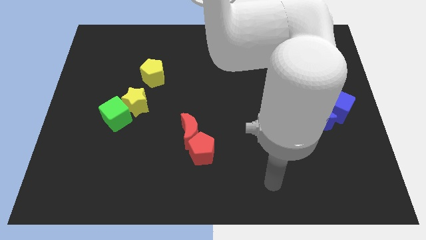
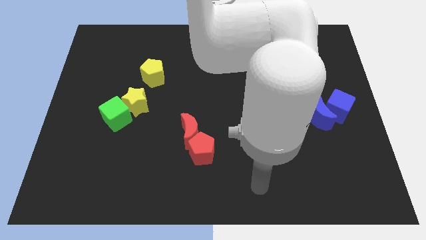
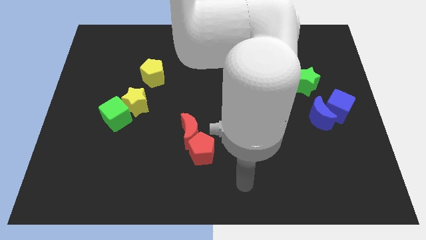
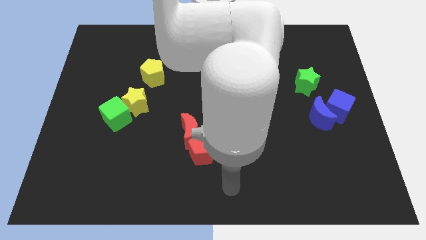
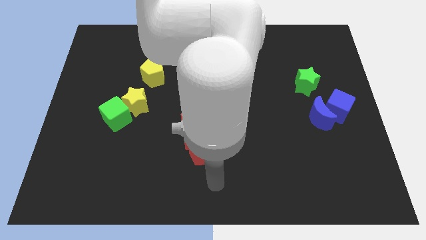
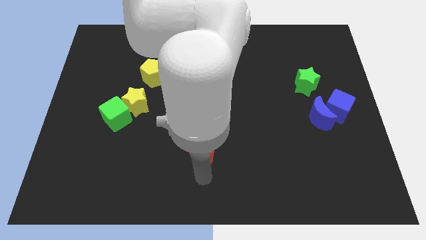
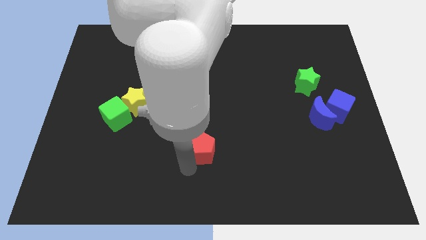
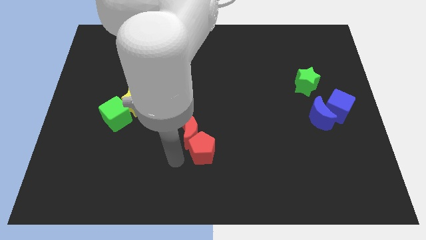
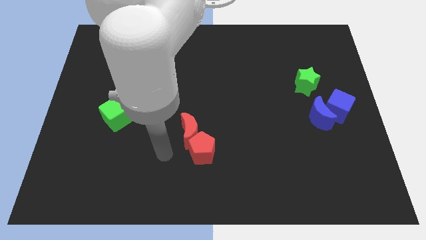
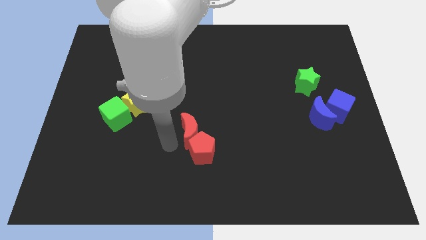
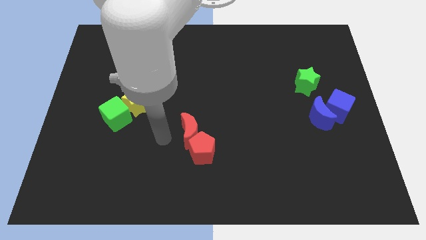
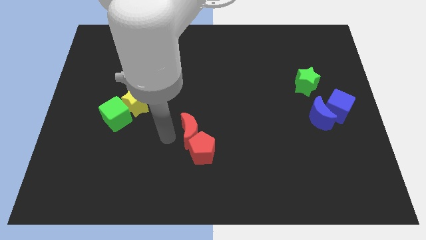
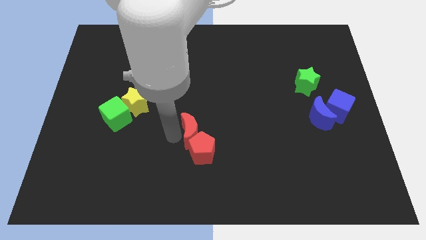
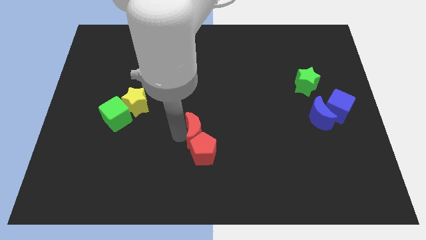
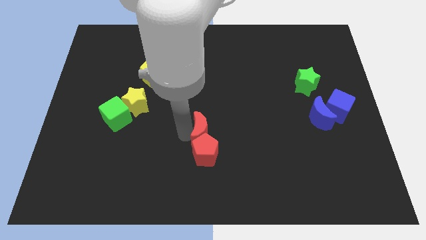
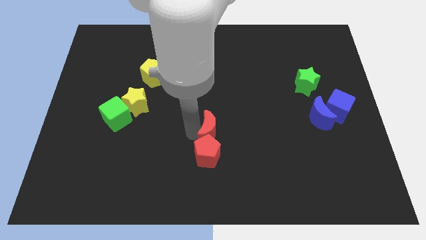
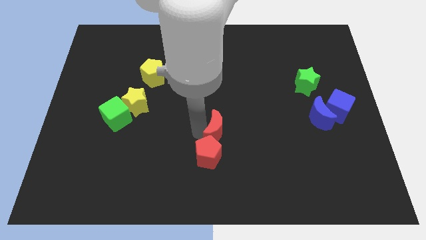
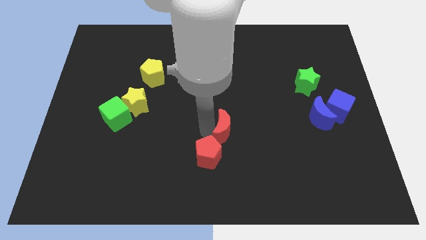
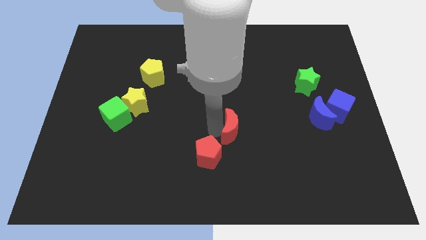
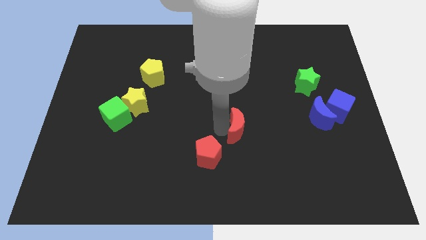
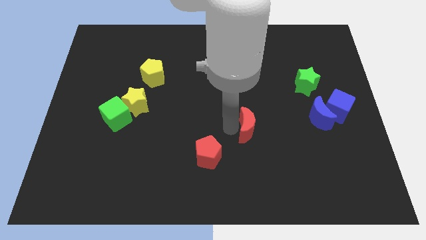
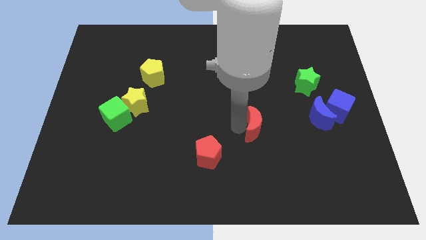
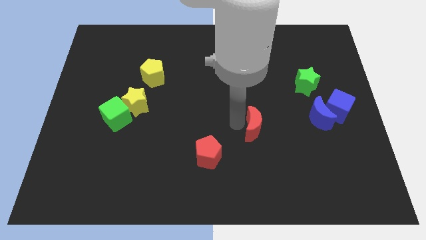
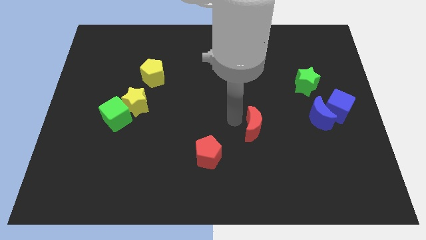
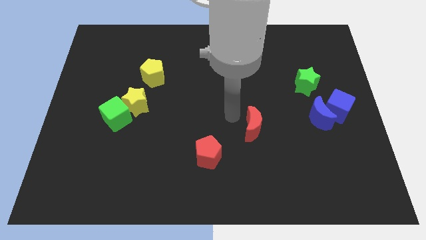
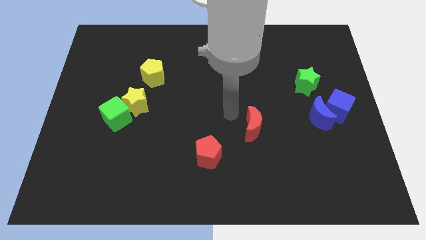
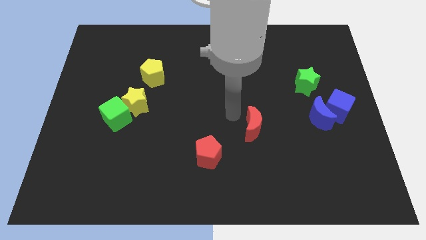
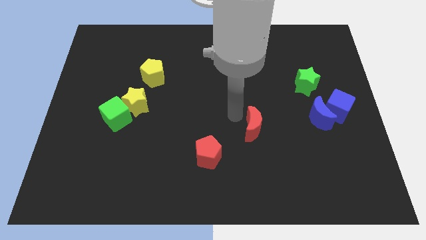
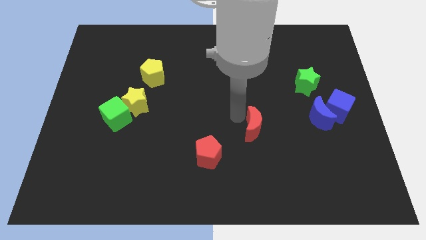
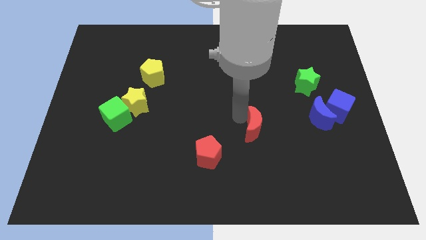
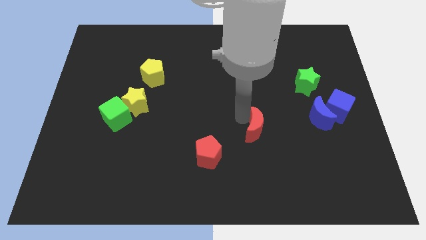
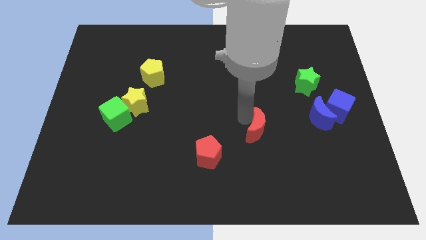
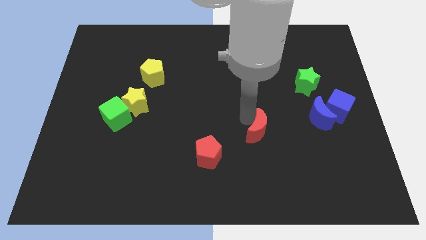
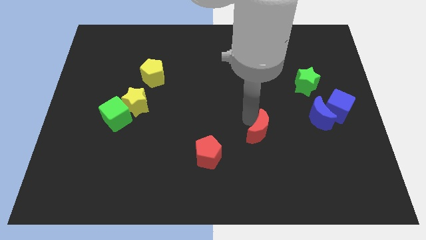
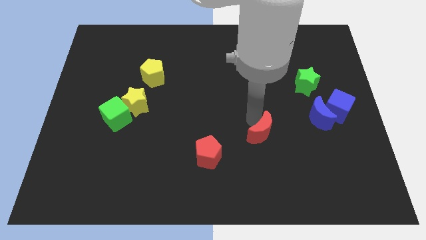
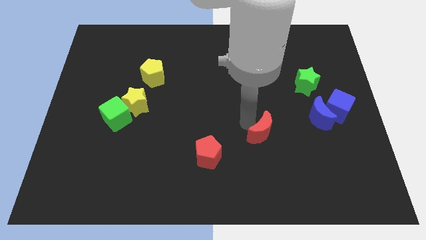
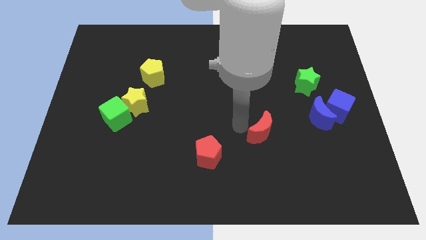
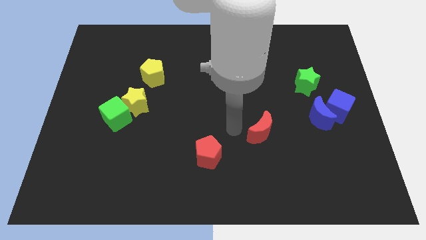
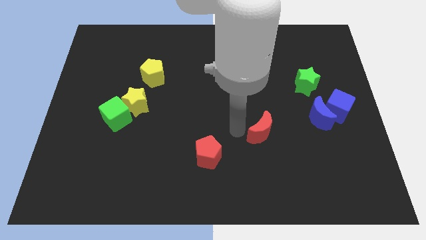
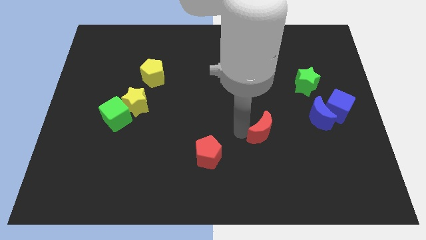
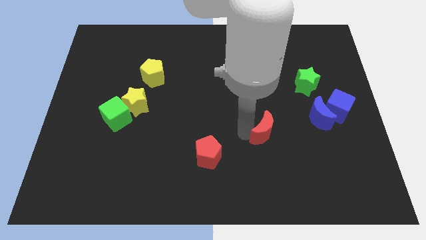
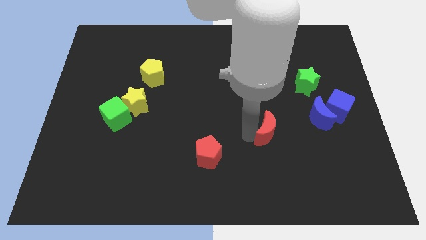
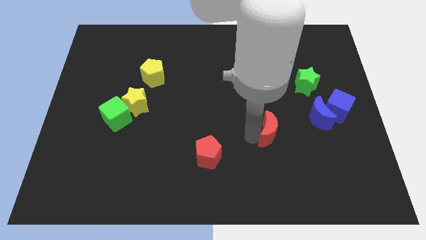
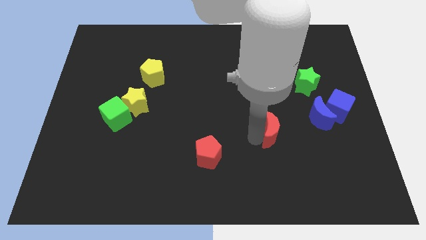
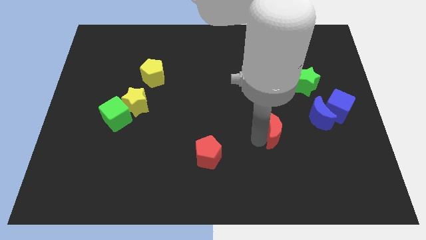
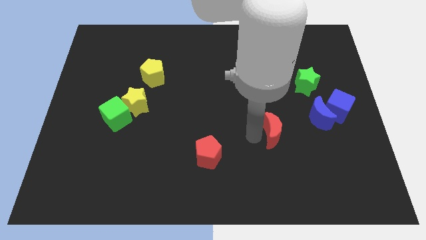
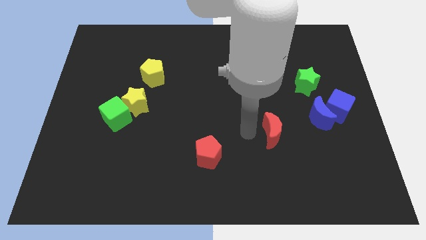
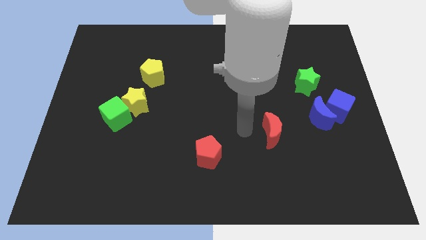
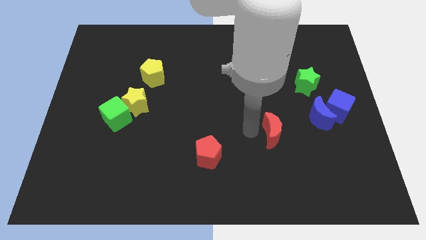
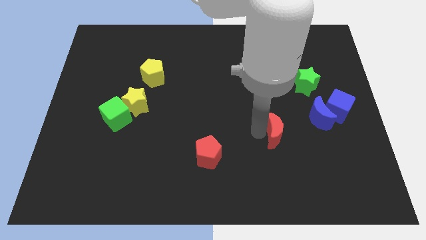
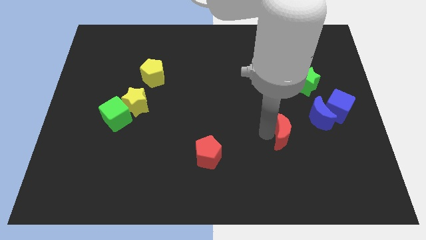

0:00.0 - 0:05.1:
put the red moon diagonally down and to the left of the blue moon

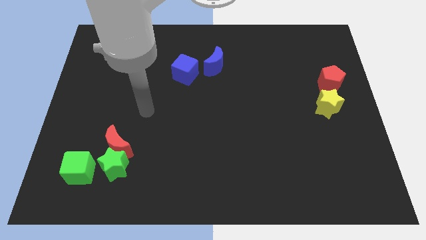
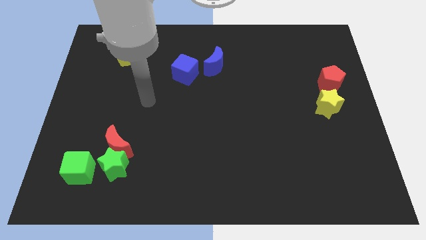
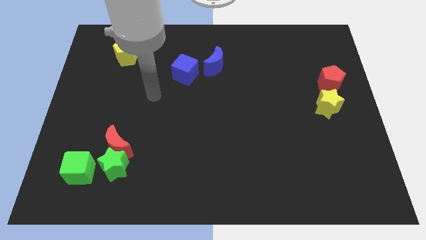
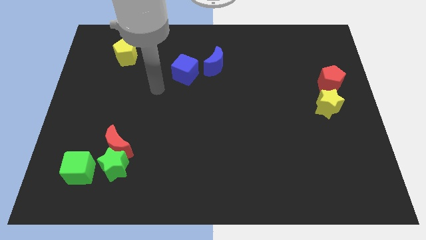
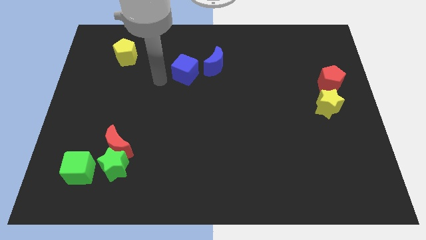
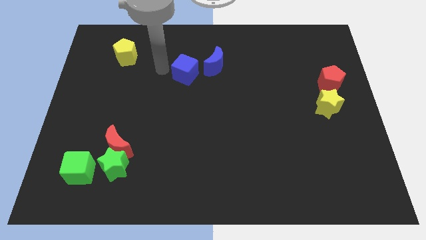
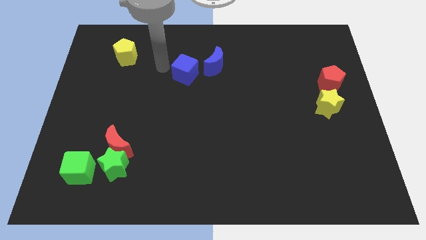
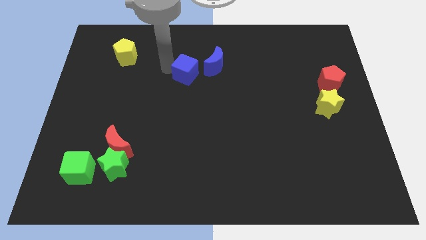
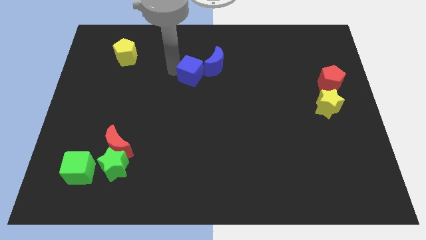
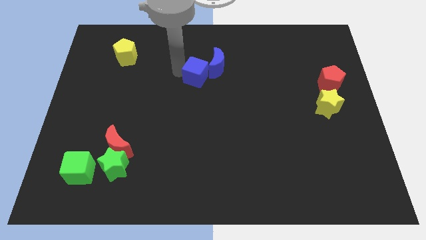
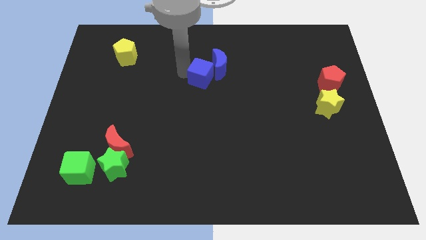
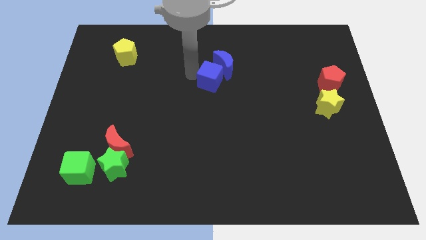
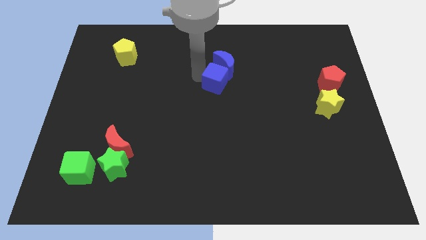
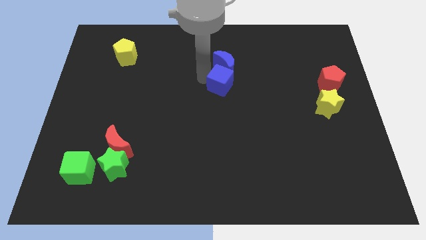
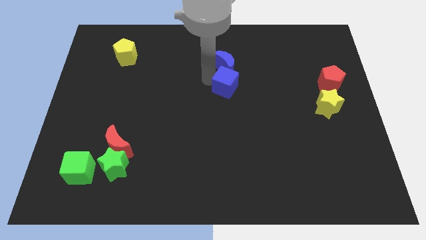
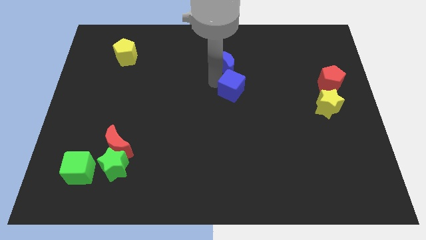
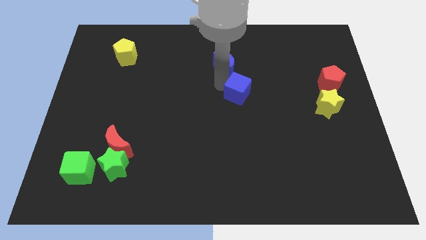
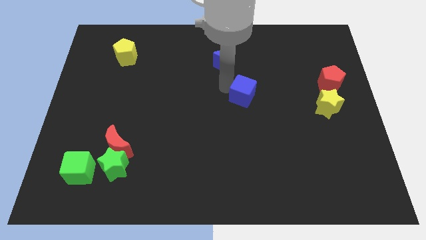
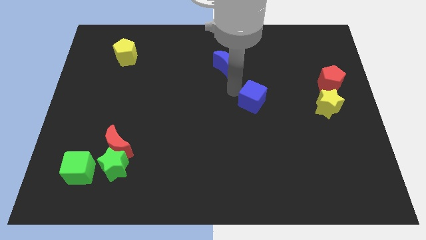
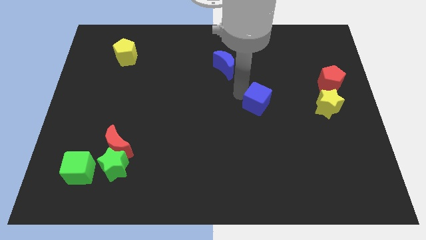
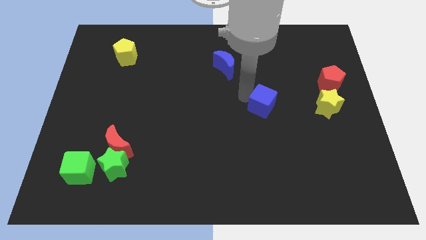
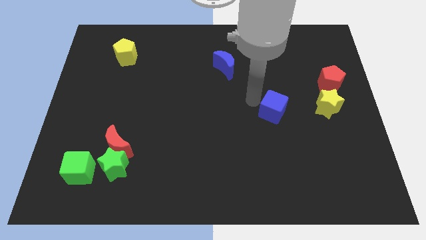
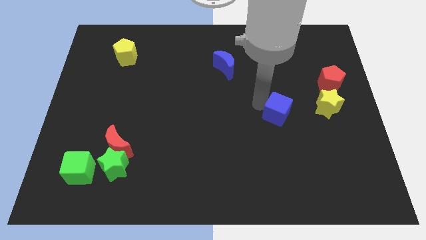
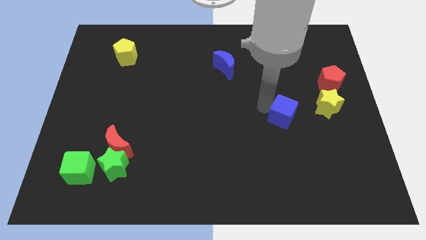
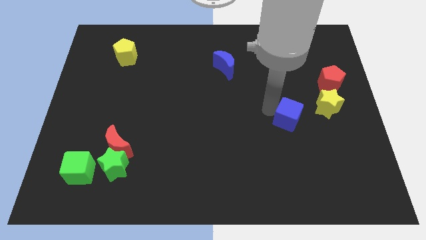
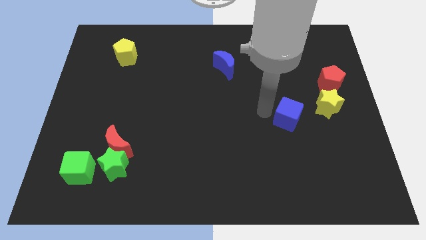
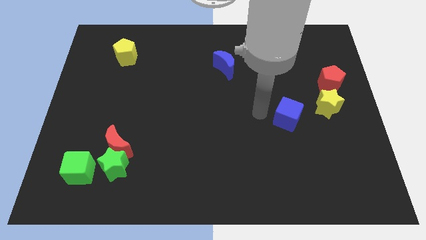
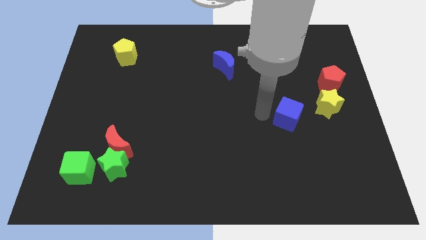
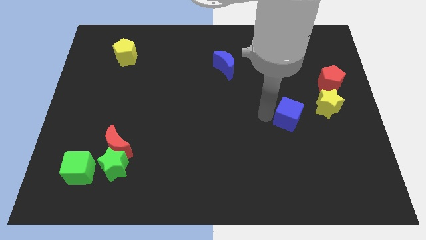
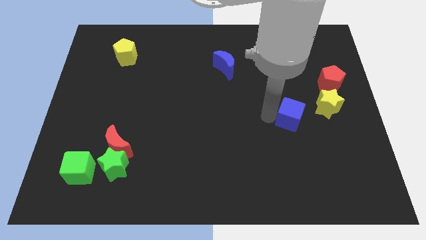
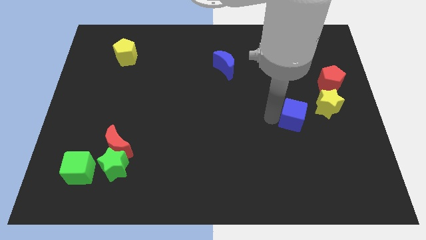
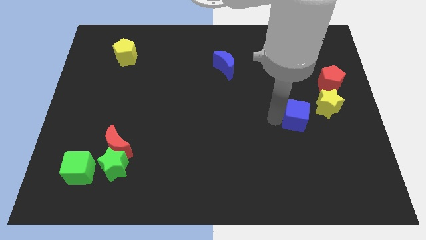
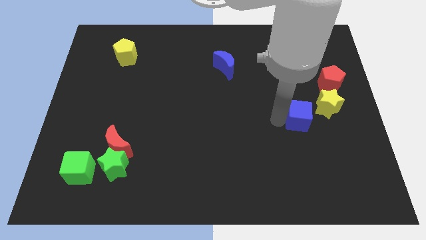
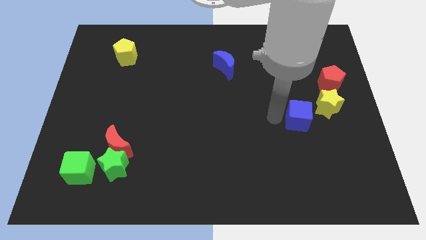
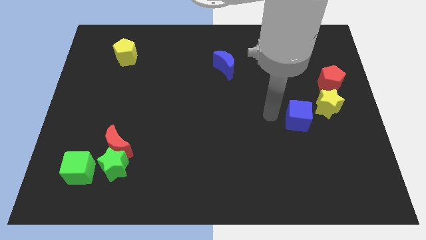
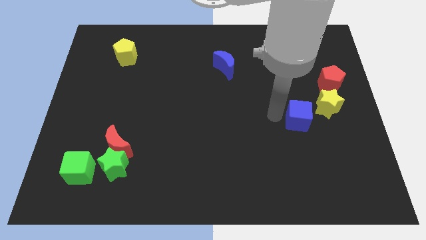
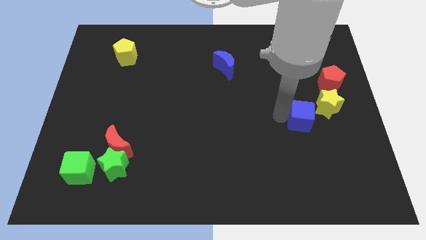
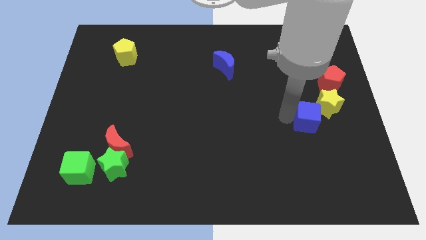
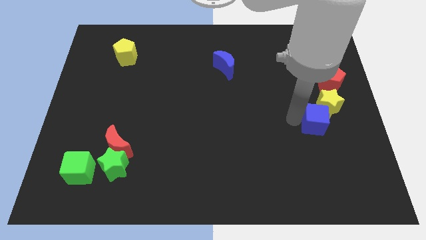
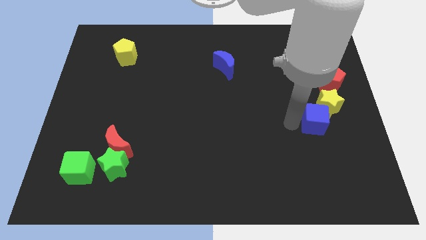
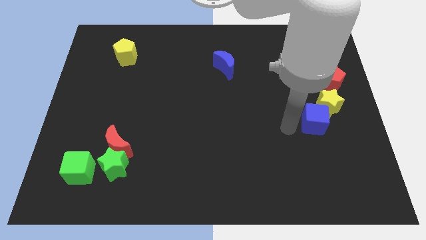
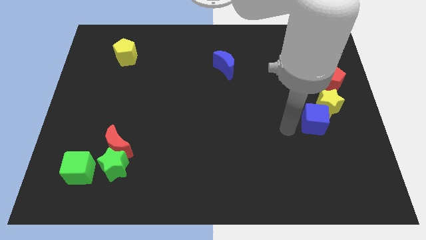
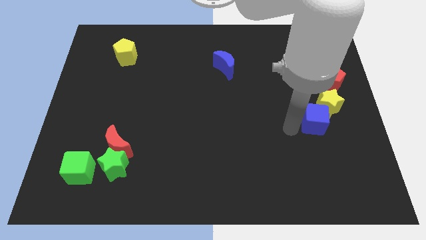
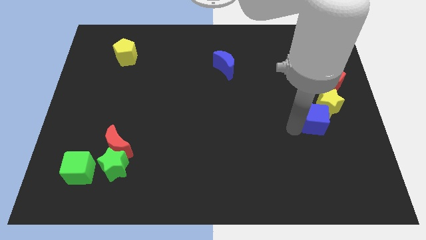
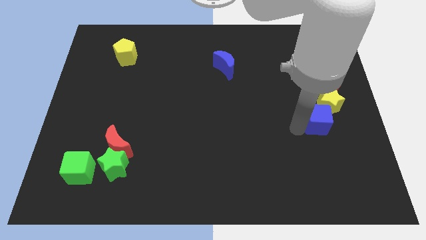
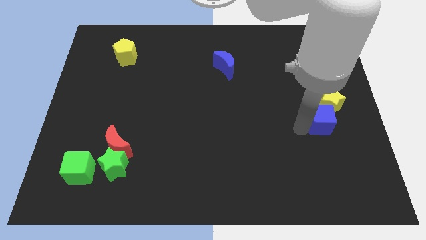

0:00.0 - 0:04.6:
put the blue cube below the red pentagon
